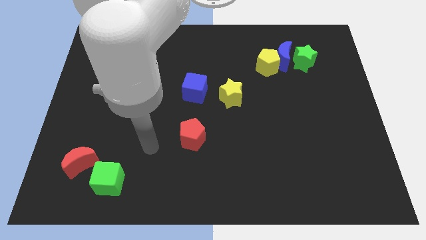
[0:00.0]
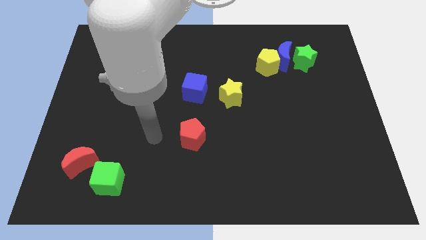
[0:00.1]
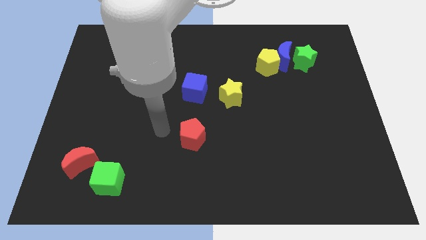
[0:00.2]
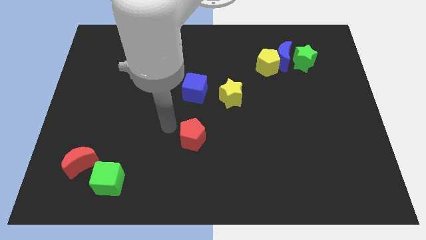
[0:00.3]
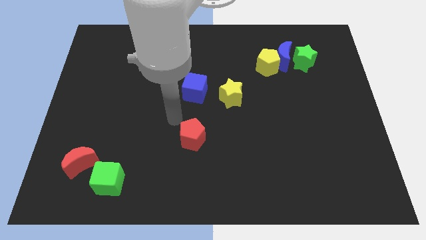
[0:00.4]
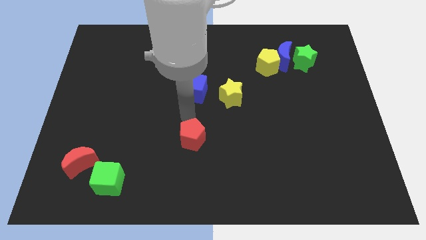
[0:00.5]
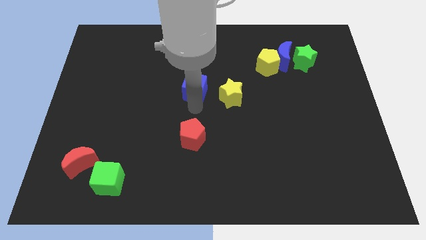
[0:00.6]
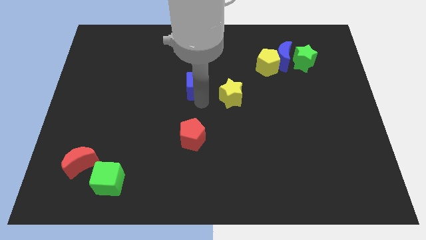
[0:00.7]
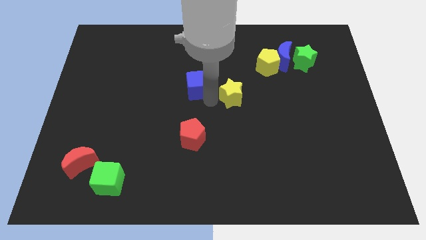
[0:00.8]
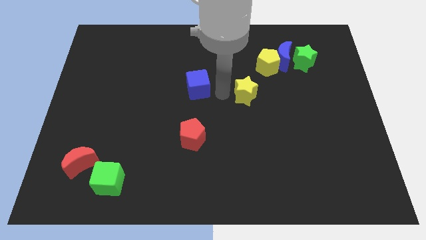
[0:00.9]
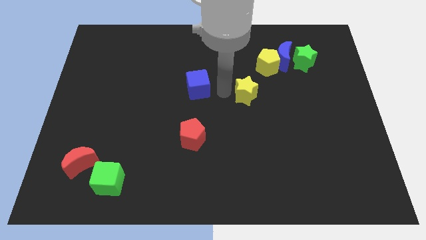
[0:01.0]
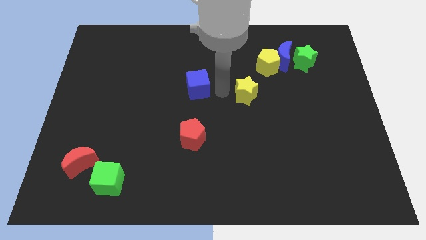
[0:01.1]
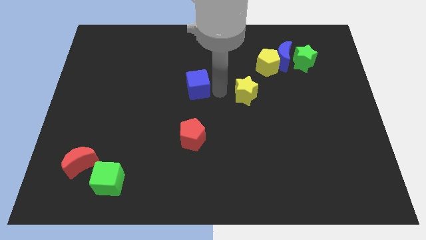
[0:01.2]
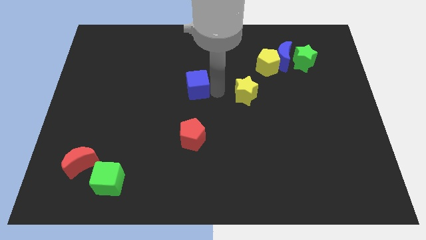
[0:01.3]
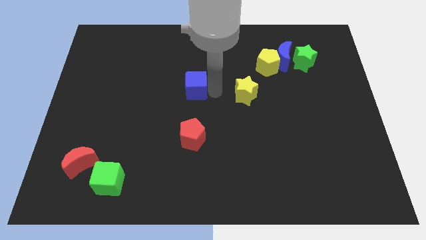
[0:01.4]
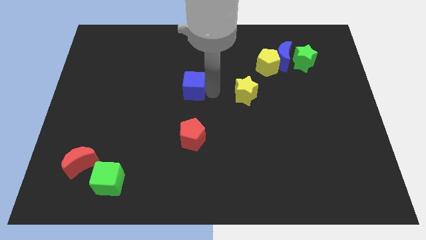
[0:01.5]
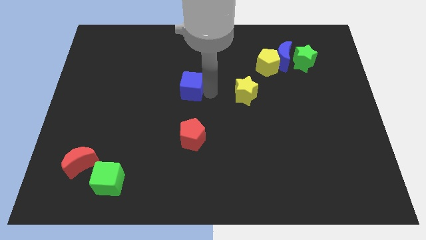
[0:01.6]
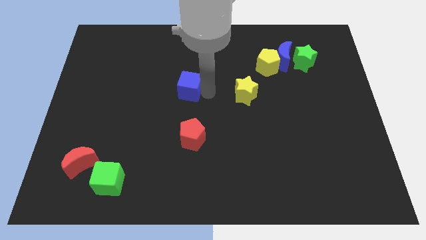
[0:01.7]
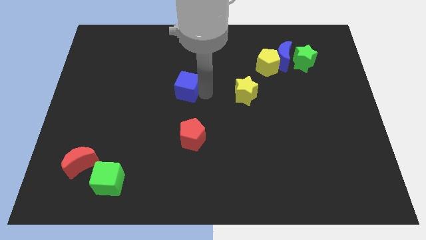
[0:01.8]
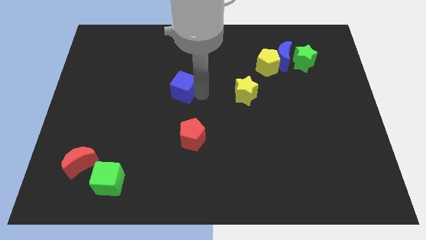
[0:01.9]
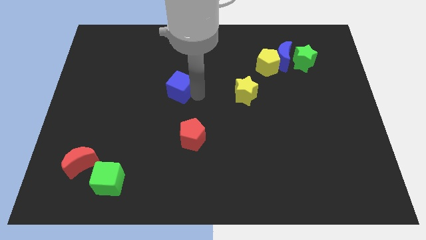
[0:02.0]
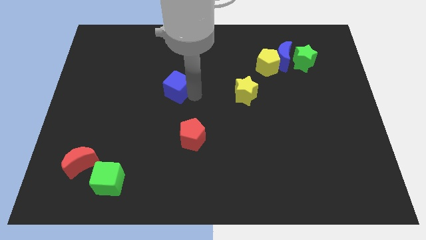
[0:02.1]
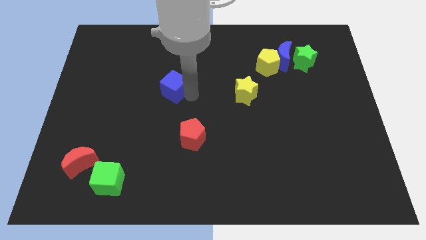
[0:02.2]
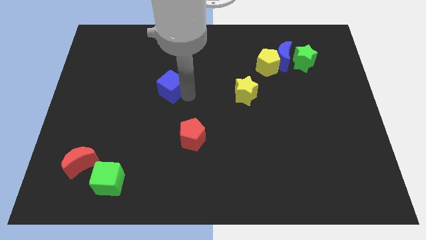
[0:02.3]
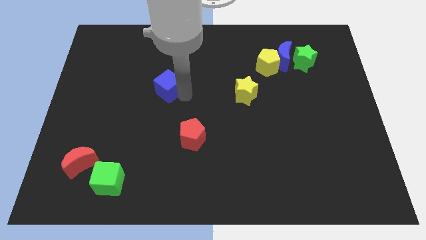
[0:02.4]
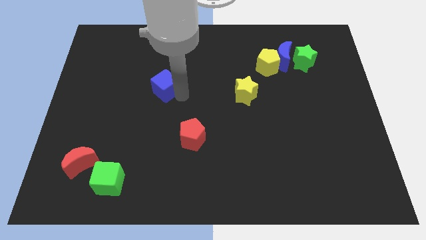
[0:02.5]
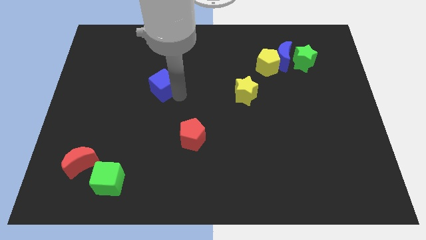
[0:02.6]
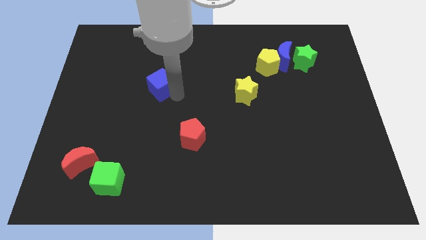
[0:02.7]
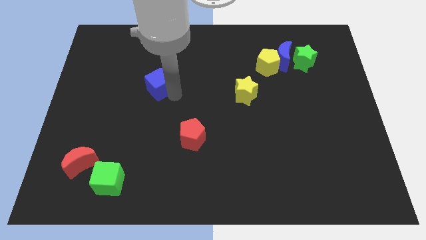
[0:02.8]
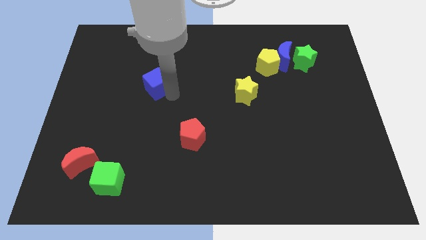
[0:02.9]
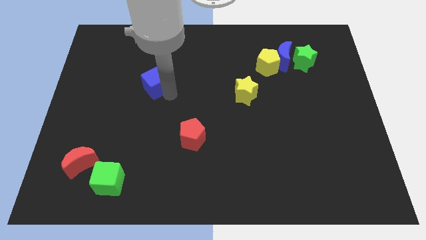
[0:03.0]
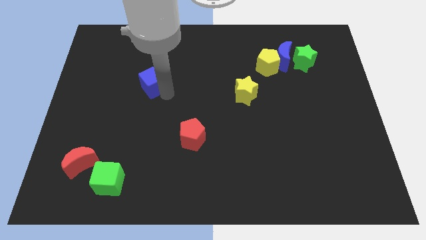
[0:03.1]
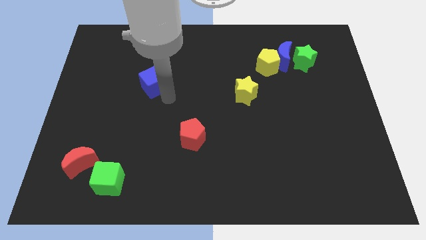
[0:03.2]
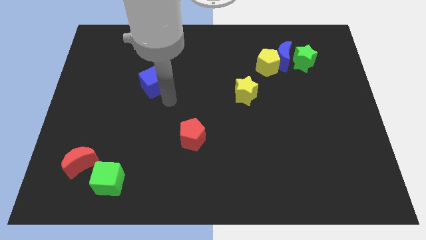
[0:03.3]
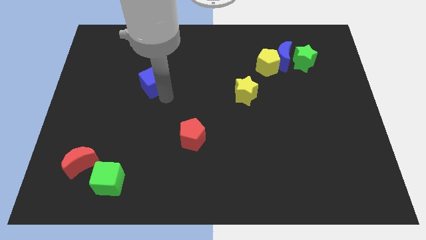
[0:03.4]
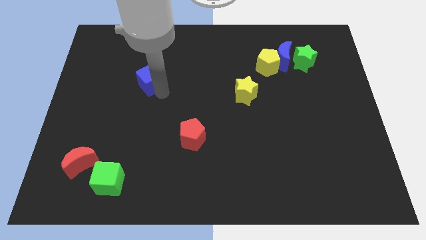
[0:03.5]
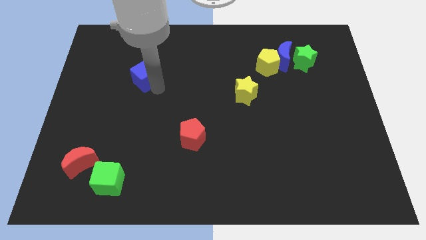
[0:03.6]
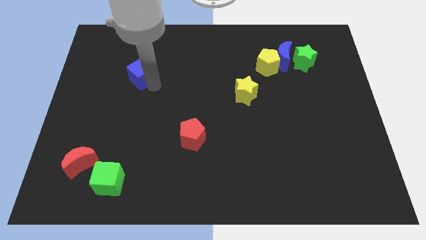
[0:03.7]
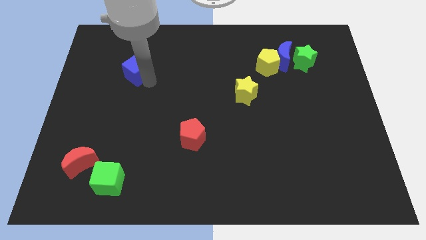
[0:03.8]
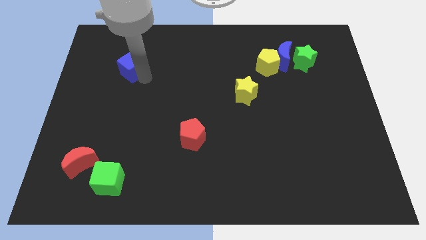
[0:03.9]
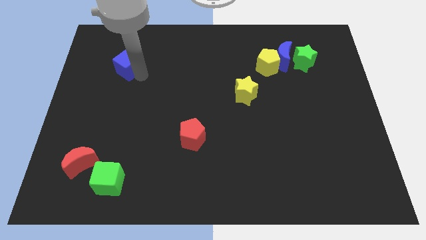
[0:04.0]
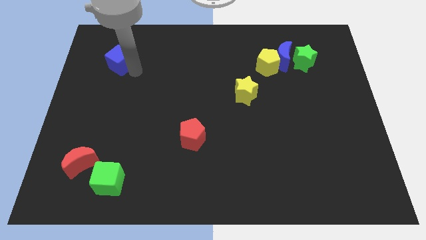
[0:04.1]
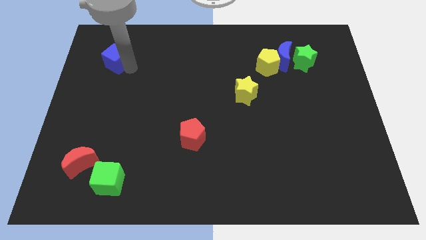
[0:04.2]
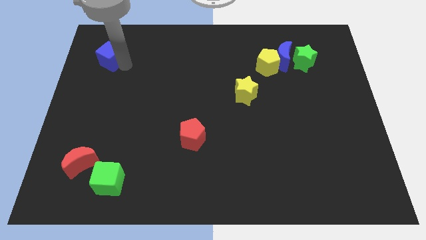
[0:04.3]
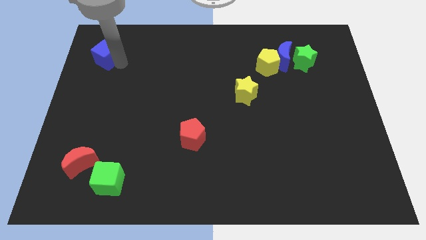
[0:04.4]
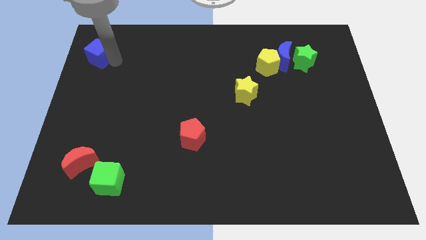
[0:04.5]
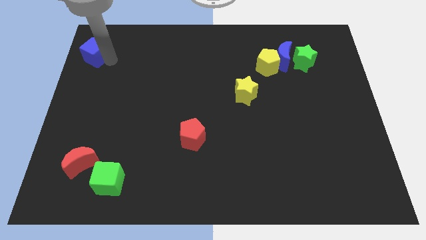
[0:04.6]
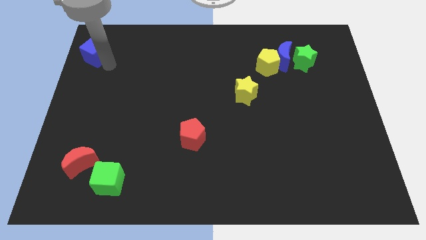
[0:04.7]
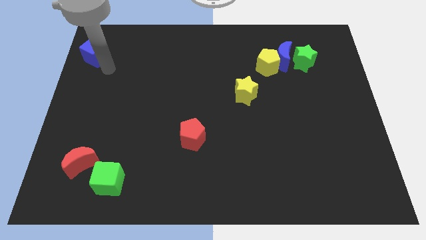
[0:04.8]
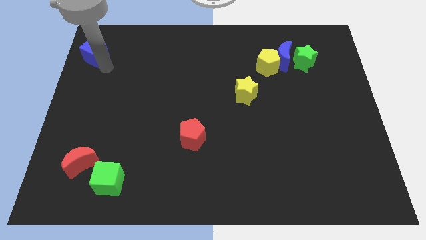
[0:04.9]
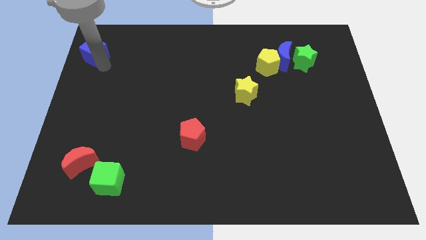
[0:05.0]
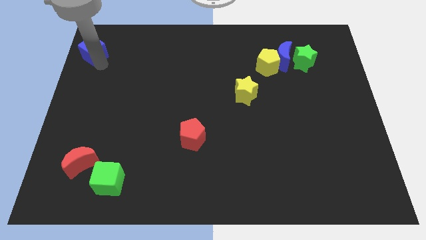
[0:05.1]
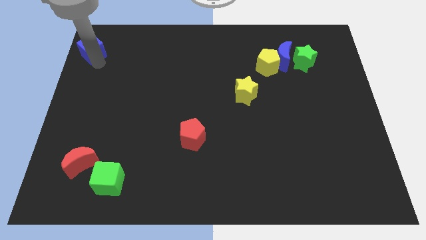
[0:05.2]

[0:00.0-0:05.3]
push the blue cube to the top left of the board

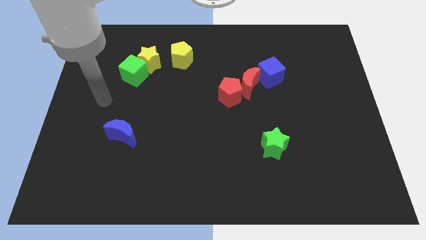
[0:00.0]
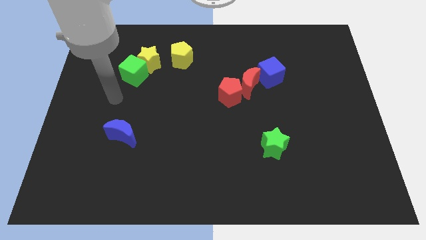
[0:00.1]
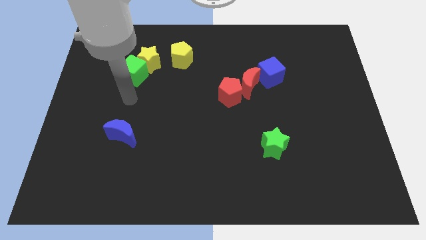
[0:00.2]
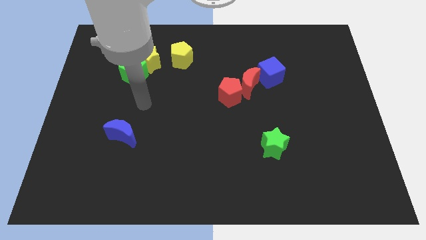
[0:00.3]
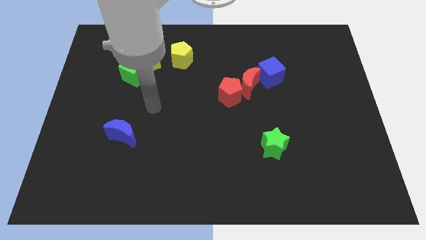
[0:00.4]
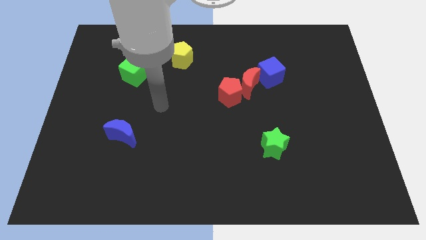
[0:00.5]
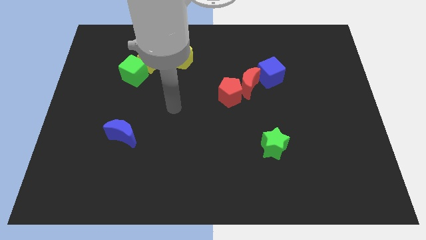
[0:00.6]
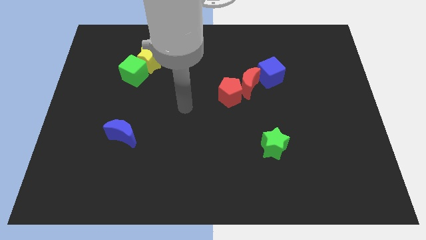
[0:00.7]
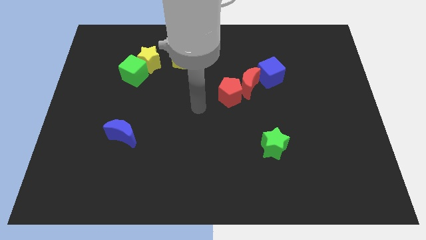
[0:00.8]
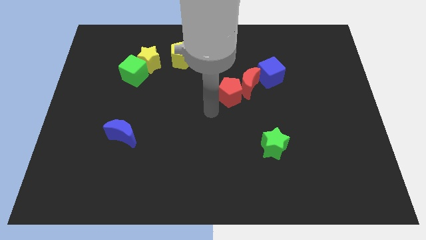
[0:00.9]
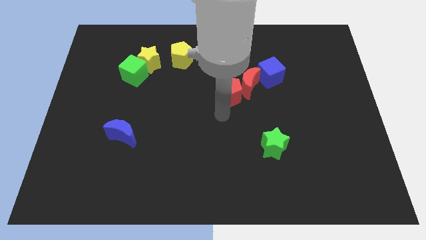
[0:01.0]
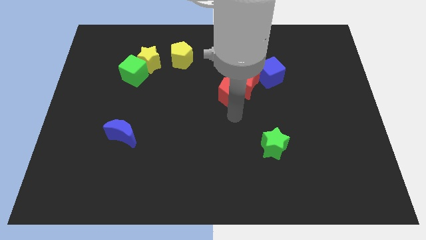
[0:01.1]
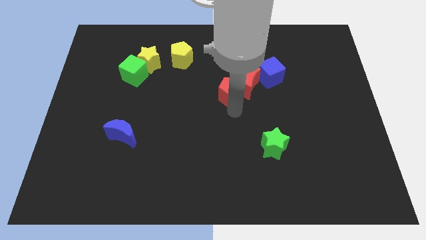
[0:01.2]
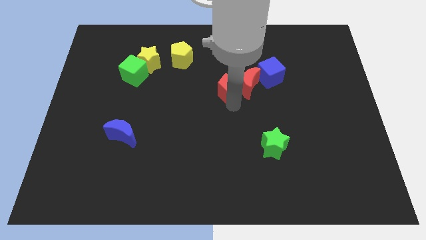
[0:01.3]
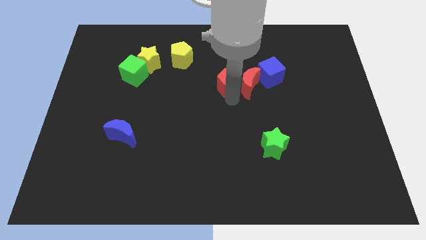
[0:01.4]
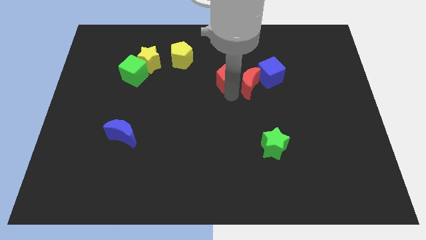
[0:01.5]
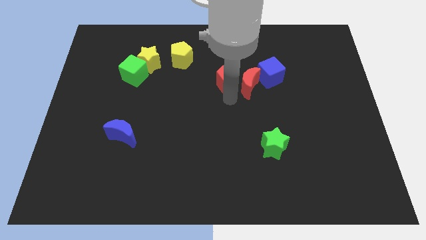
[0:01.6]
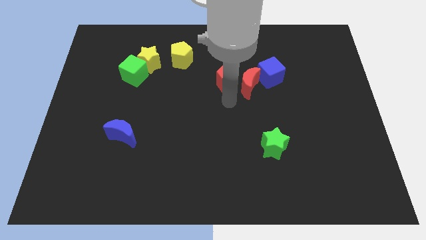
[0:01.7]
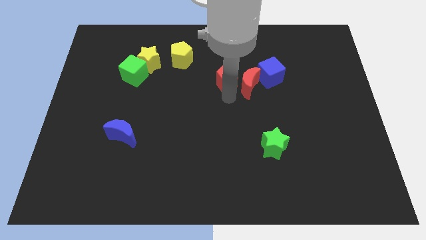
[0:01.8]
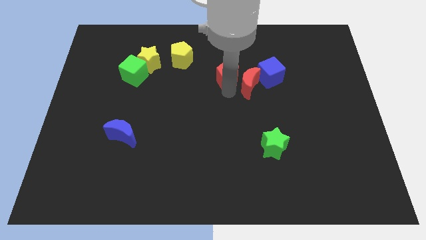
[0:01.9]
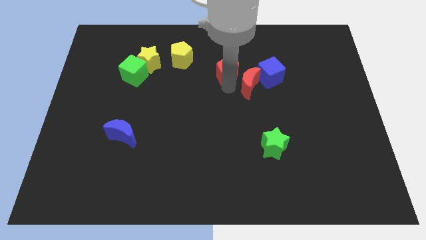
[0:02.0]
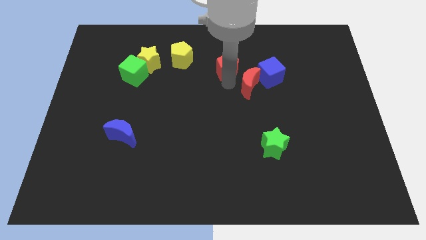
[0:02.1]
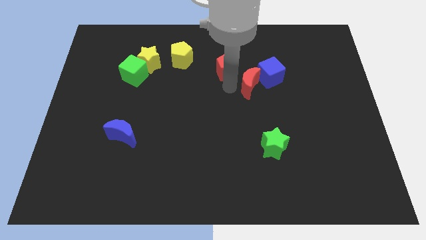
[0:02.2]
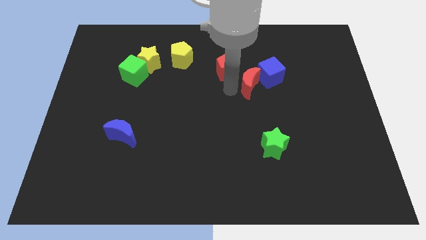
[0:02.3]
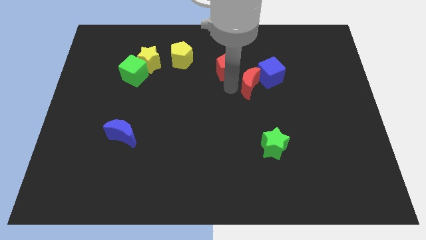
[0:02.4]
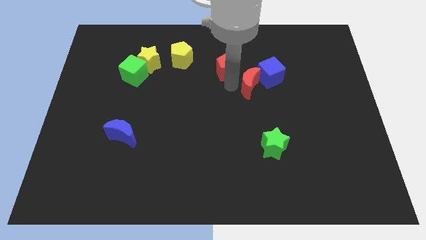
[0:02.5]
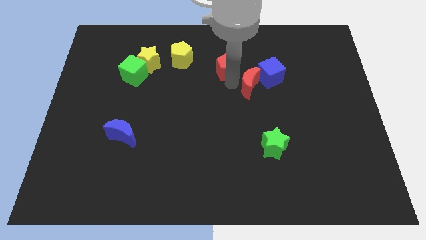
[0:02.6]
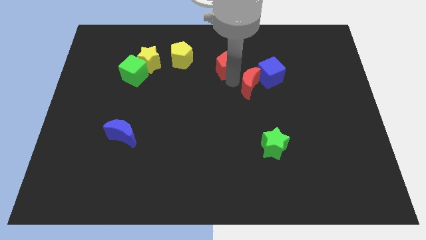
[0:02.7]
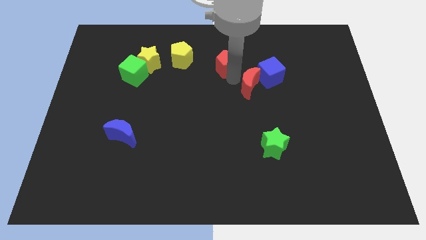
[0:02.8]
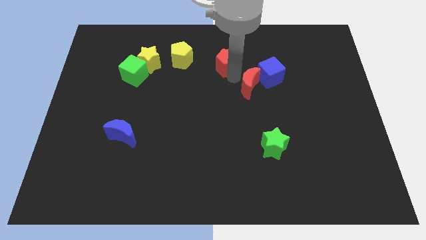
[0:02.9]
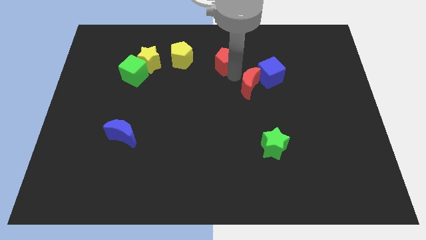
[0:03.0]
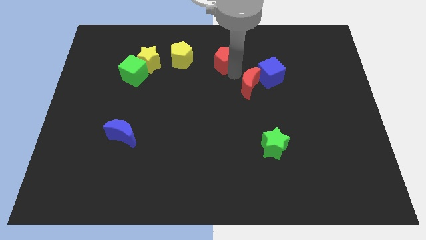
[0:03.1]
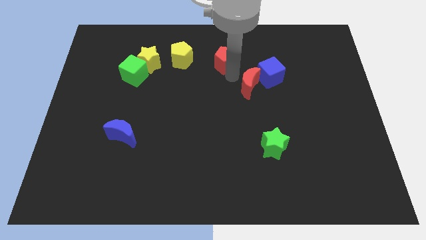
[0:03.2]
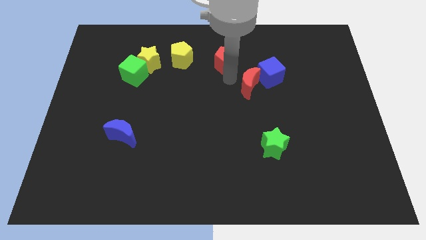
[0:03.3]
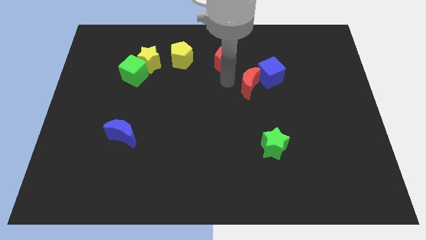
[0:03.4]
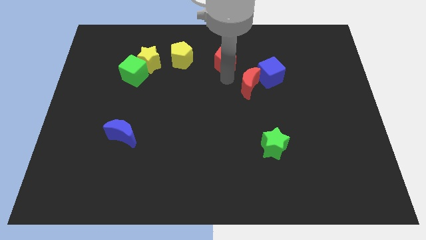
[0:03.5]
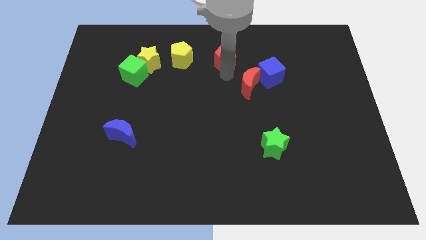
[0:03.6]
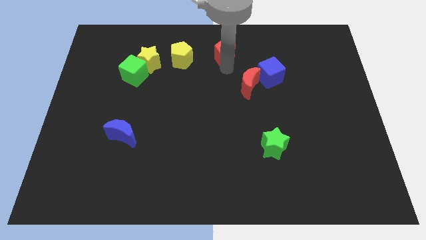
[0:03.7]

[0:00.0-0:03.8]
slide the red pentagon to the top
